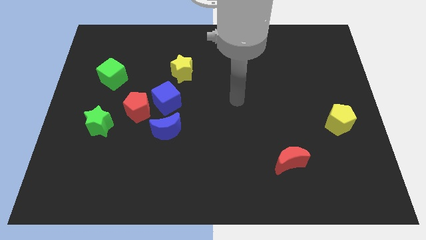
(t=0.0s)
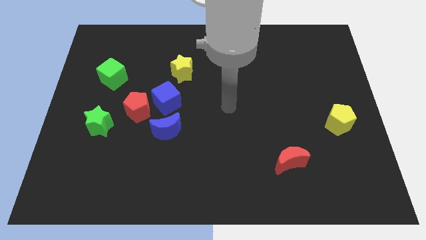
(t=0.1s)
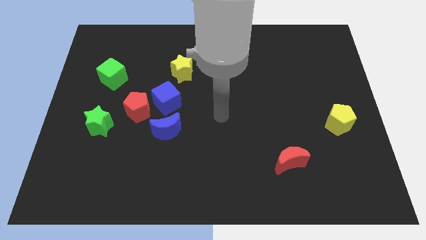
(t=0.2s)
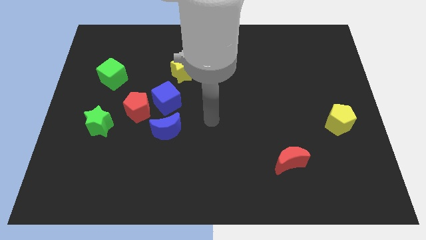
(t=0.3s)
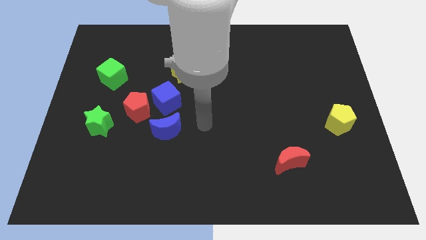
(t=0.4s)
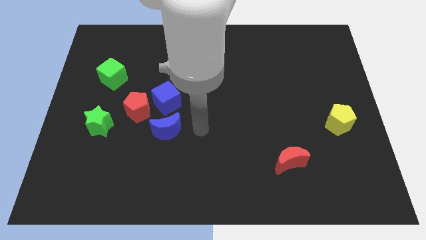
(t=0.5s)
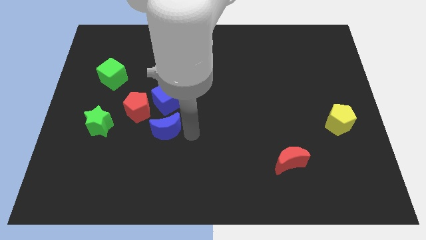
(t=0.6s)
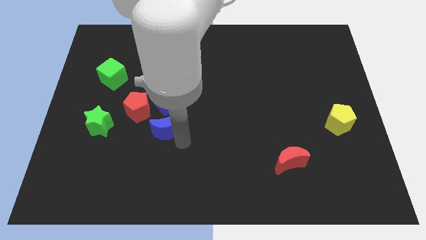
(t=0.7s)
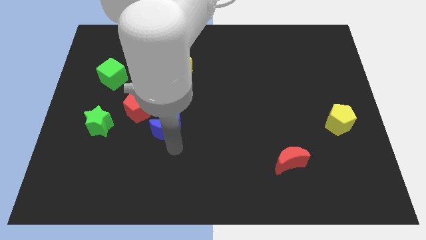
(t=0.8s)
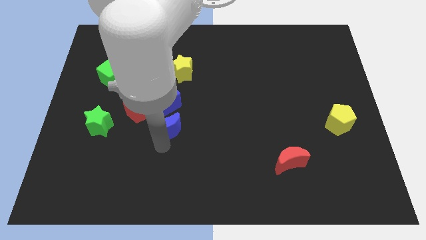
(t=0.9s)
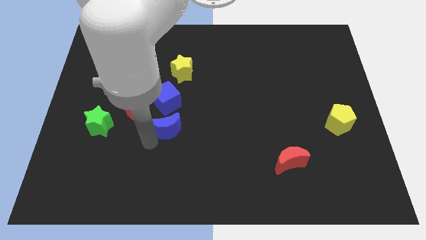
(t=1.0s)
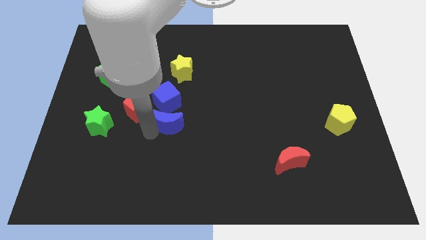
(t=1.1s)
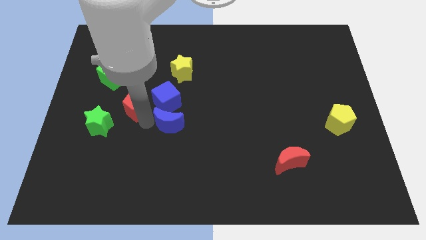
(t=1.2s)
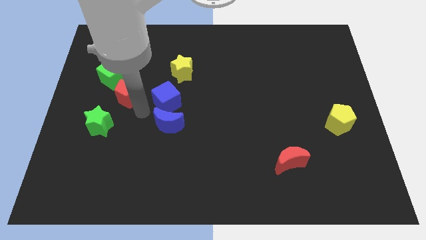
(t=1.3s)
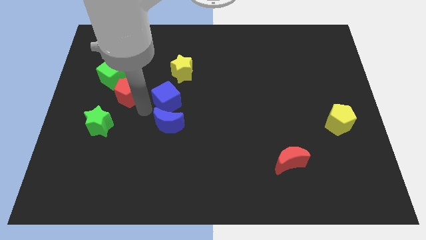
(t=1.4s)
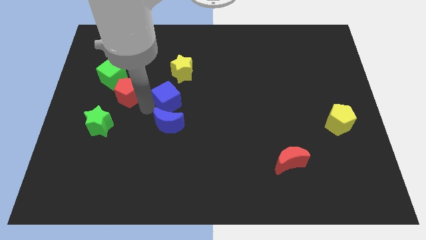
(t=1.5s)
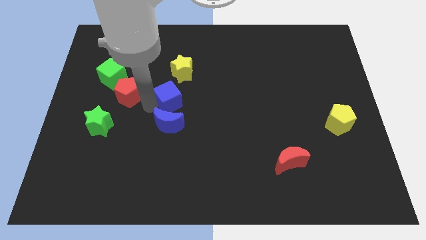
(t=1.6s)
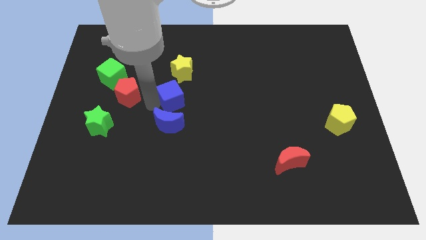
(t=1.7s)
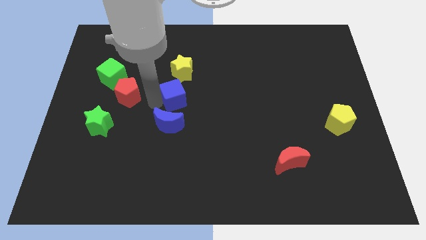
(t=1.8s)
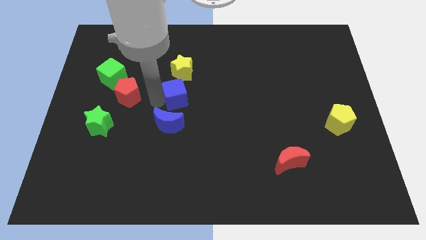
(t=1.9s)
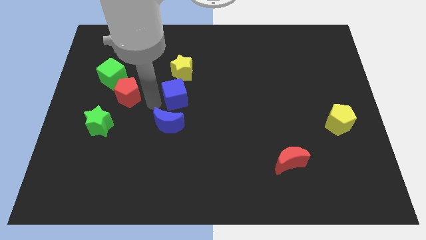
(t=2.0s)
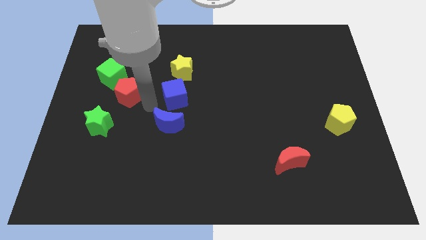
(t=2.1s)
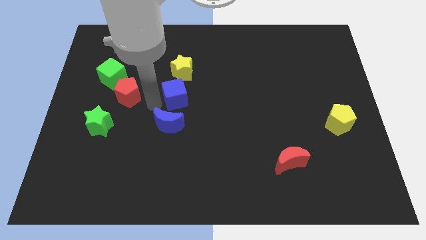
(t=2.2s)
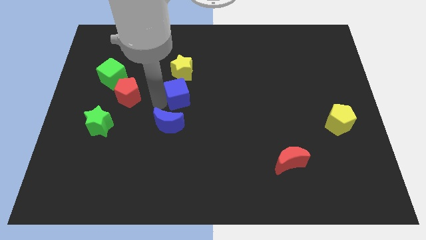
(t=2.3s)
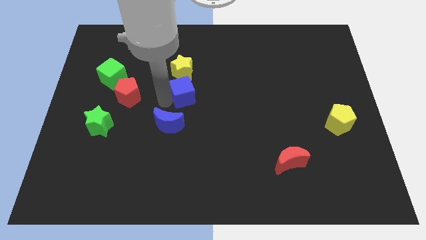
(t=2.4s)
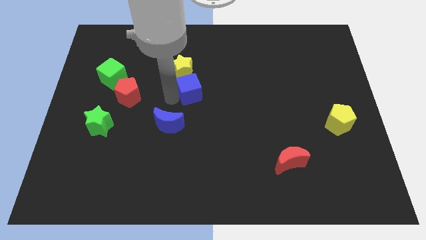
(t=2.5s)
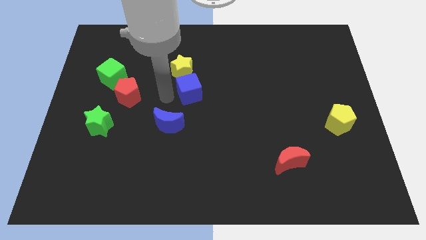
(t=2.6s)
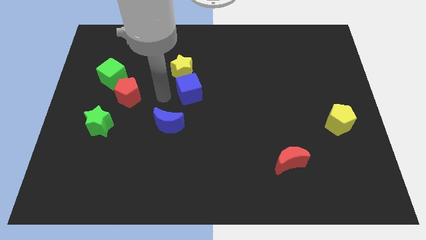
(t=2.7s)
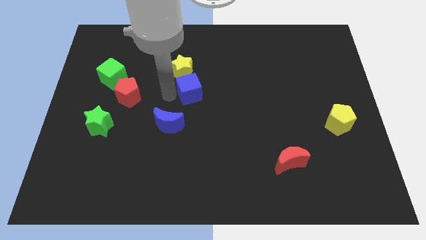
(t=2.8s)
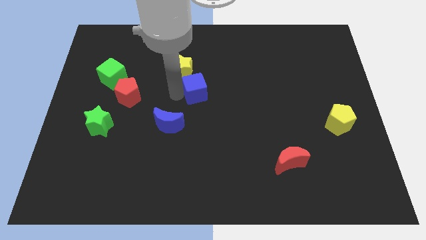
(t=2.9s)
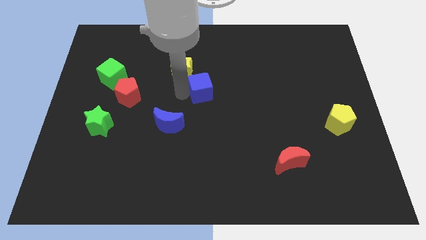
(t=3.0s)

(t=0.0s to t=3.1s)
separate the blue cube from the group

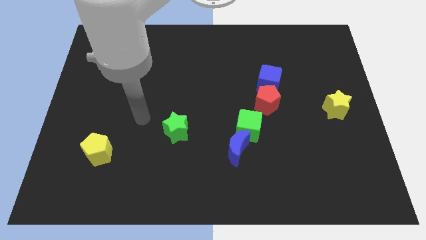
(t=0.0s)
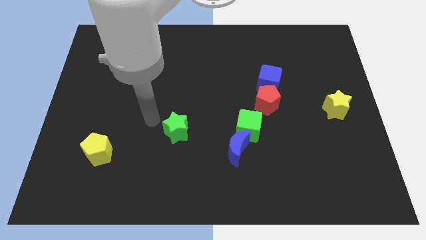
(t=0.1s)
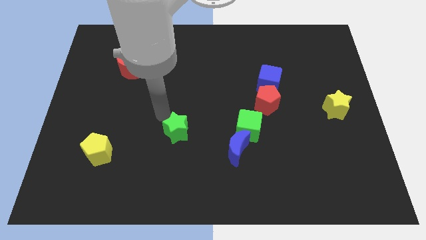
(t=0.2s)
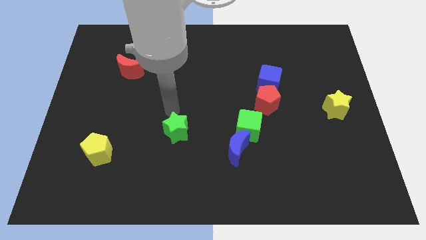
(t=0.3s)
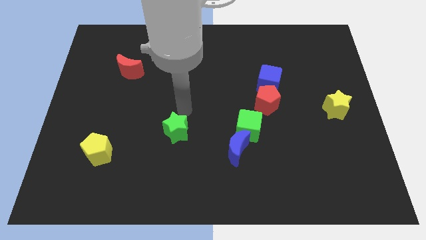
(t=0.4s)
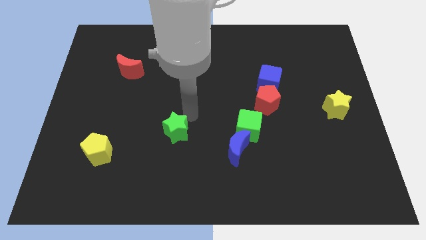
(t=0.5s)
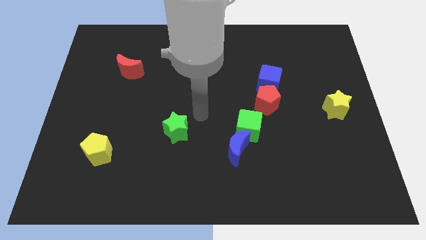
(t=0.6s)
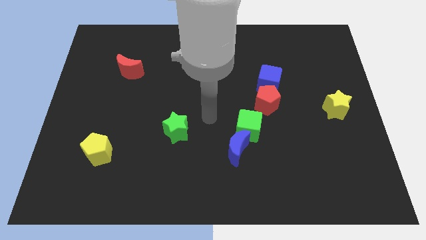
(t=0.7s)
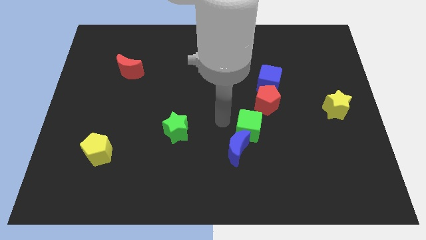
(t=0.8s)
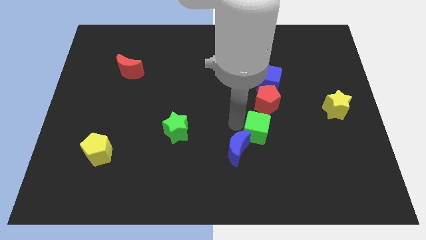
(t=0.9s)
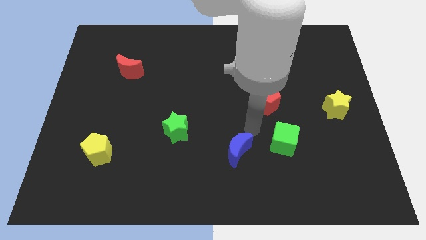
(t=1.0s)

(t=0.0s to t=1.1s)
pull the blue moon apart from the green cube

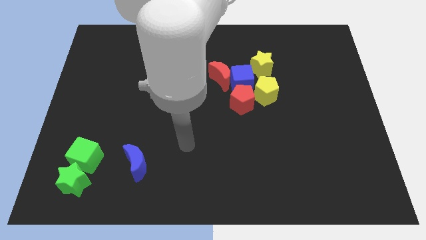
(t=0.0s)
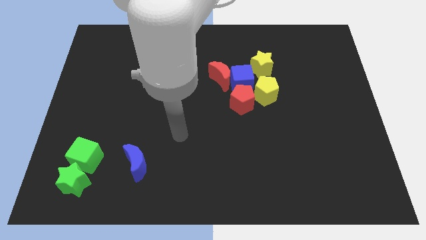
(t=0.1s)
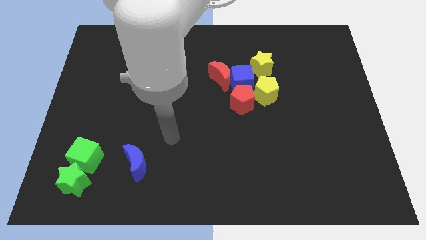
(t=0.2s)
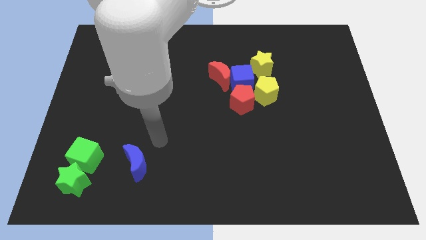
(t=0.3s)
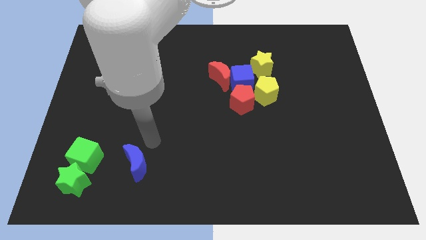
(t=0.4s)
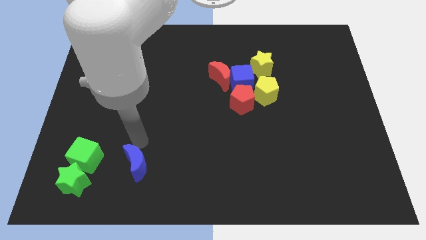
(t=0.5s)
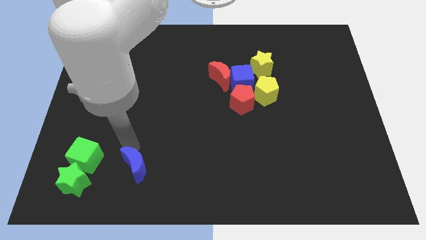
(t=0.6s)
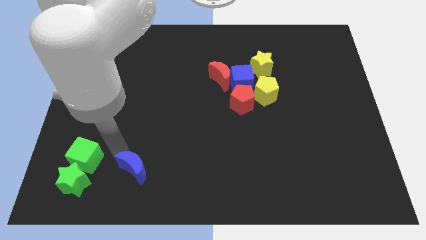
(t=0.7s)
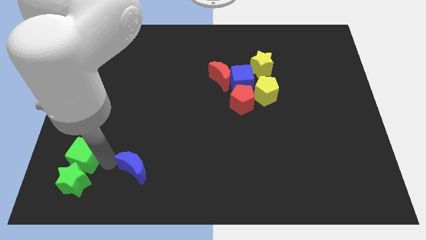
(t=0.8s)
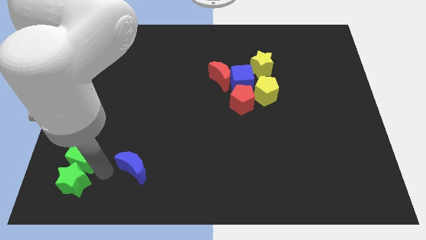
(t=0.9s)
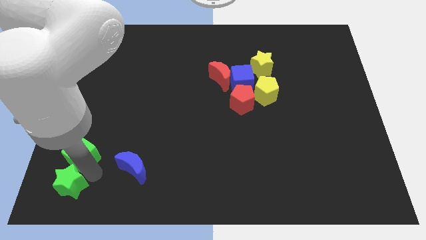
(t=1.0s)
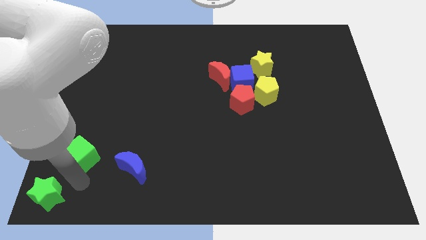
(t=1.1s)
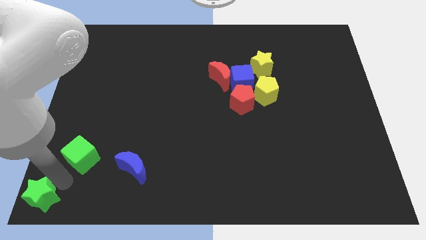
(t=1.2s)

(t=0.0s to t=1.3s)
separate the green cube from the green star

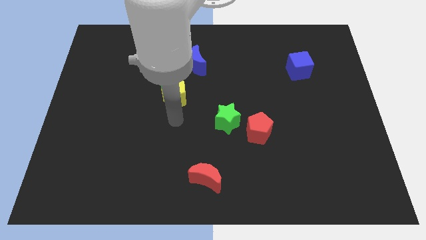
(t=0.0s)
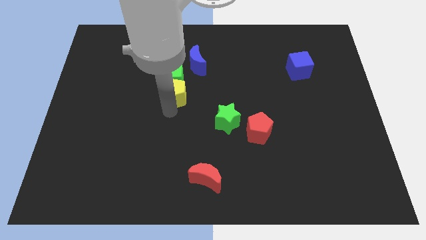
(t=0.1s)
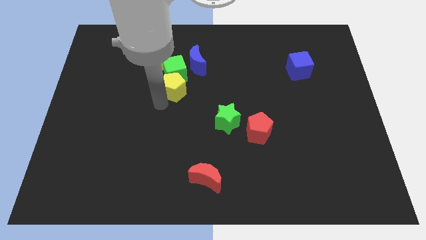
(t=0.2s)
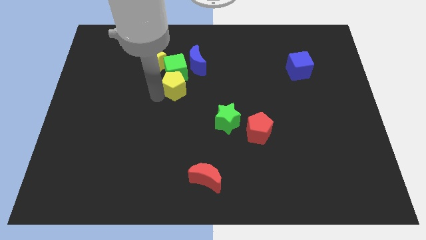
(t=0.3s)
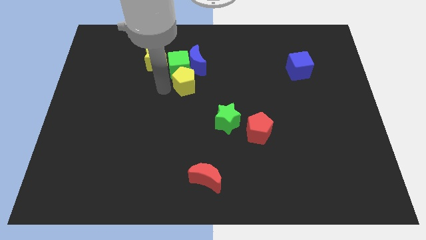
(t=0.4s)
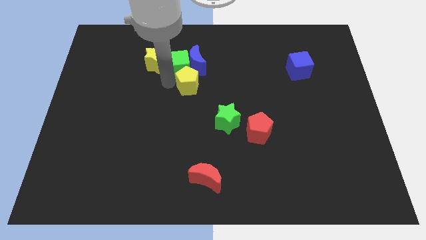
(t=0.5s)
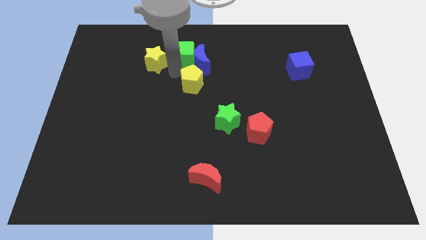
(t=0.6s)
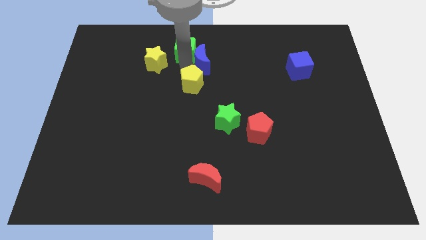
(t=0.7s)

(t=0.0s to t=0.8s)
pull the yellow pentagon apart from the green cube

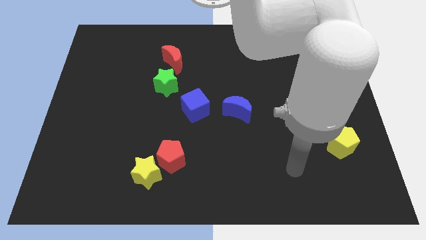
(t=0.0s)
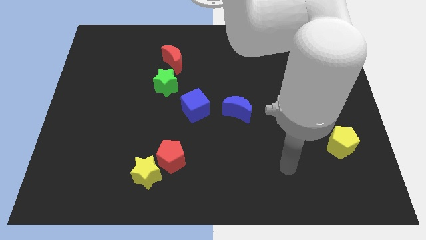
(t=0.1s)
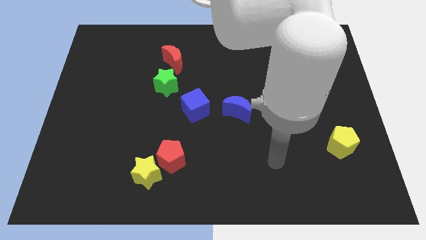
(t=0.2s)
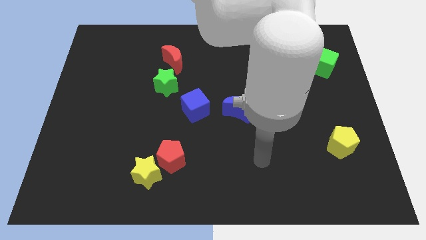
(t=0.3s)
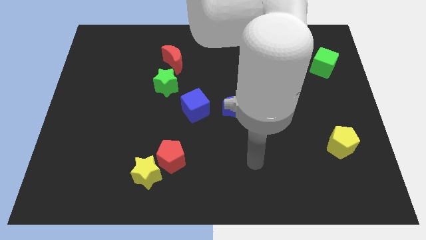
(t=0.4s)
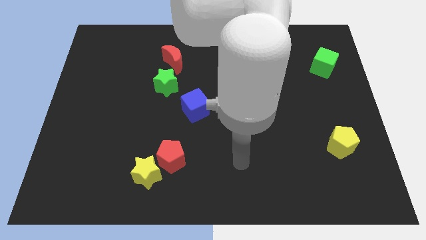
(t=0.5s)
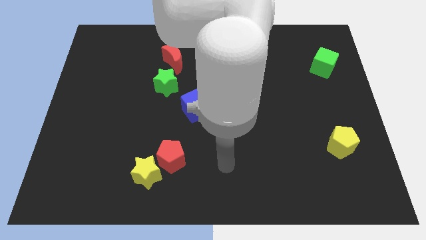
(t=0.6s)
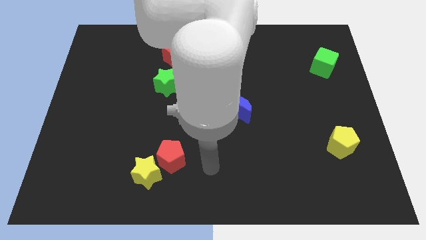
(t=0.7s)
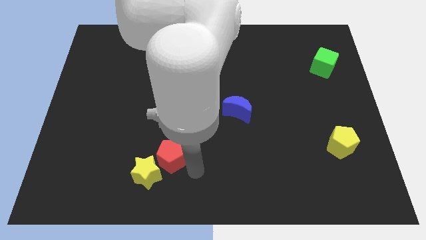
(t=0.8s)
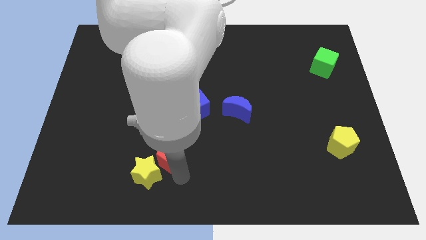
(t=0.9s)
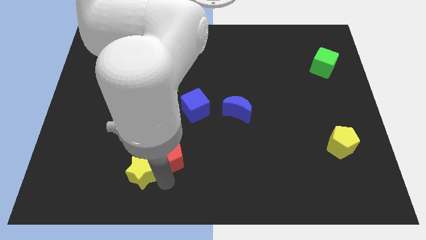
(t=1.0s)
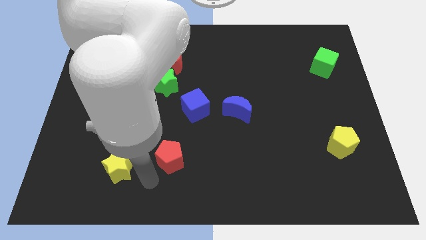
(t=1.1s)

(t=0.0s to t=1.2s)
pull the red pentagon apart from the yellow star

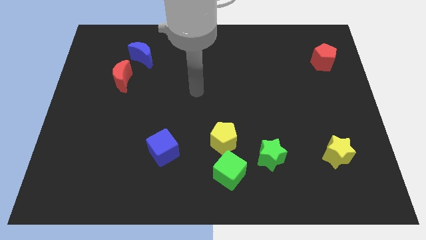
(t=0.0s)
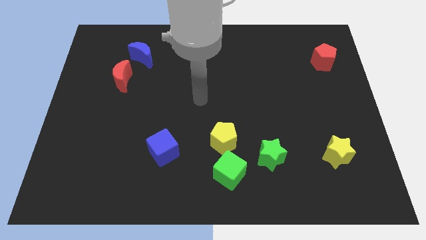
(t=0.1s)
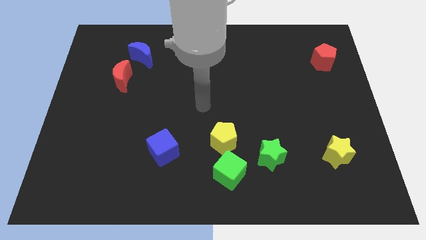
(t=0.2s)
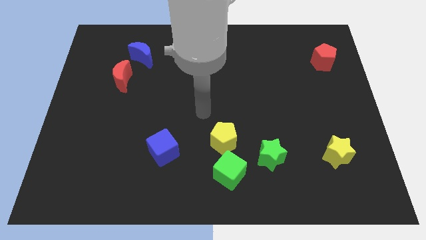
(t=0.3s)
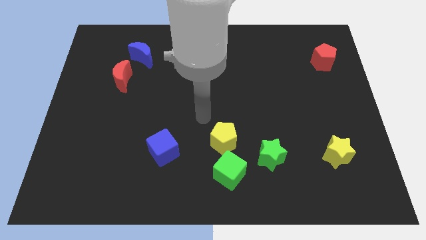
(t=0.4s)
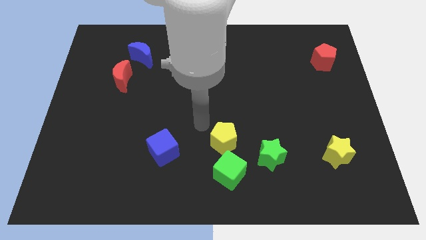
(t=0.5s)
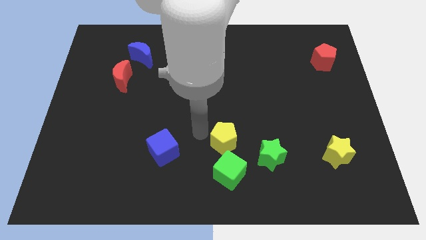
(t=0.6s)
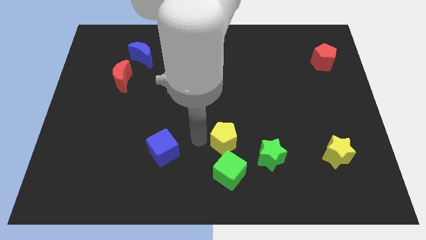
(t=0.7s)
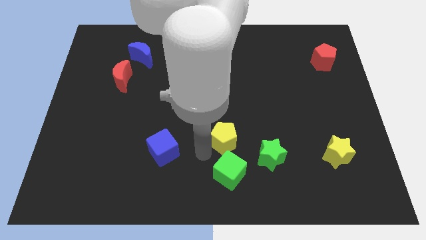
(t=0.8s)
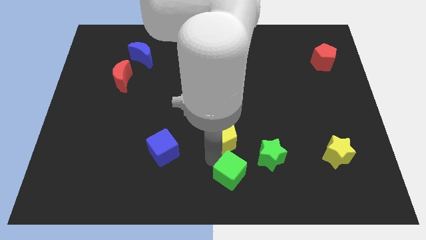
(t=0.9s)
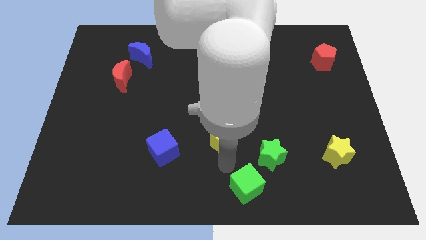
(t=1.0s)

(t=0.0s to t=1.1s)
move the yellow pentagon away from the green cube

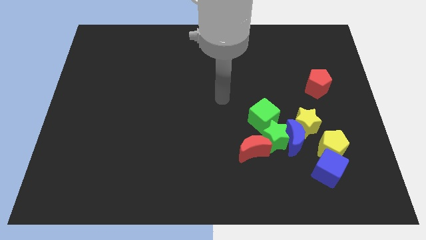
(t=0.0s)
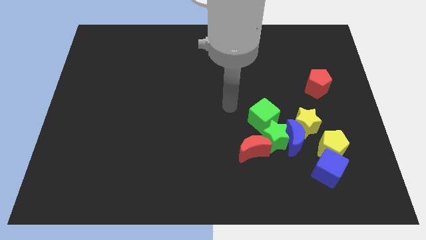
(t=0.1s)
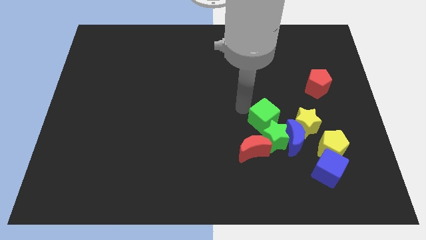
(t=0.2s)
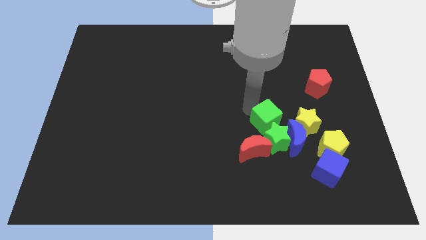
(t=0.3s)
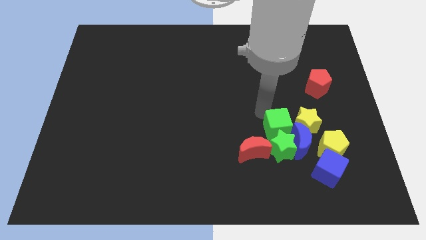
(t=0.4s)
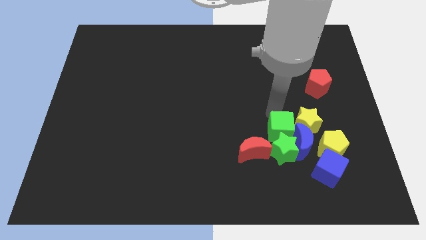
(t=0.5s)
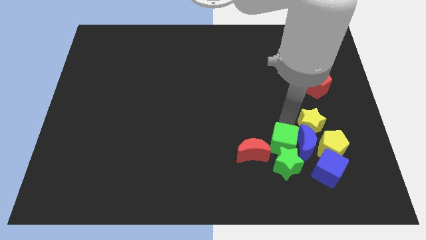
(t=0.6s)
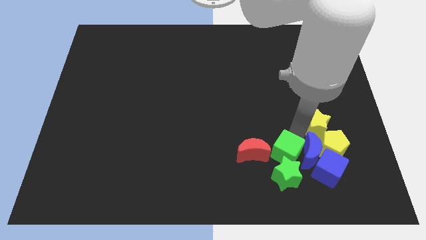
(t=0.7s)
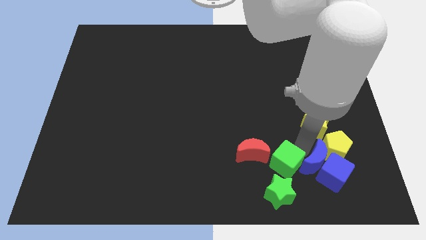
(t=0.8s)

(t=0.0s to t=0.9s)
separate the green star from the clump
